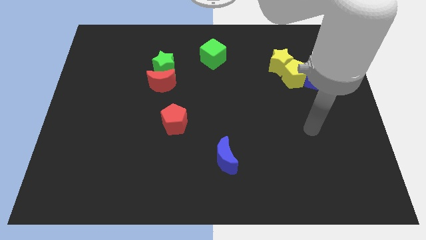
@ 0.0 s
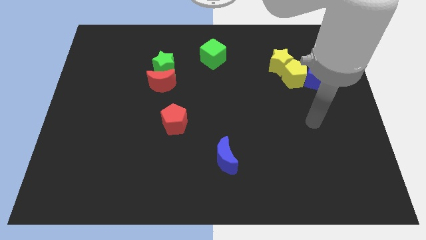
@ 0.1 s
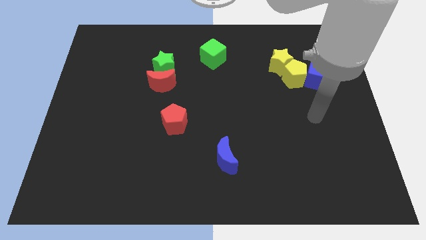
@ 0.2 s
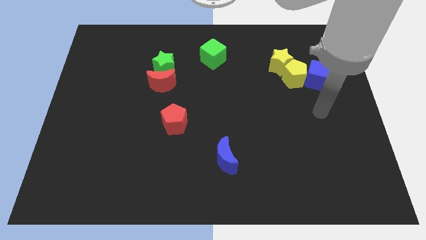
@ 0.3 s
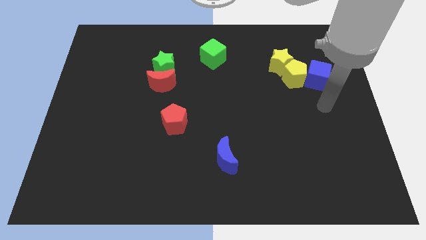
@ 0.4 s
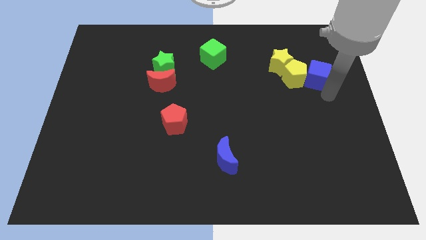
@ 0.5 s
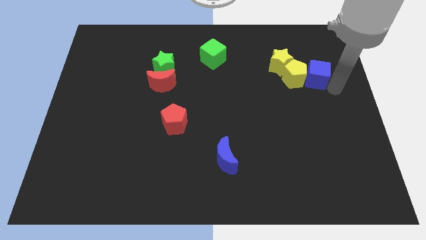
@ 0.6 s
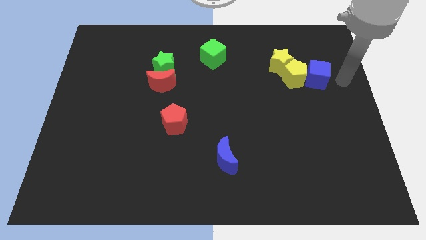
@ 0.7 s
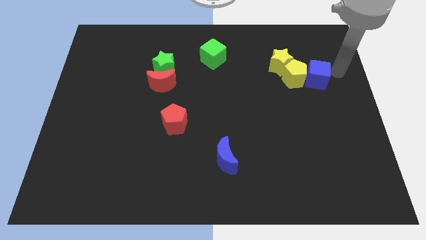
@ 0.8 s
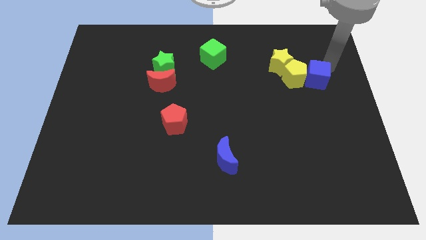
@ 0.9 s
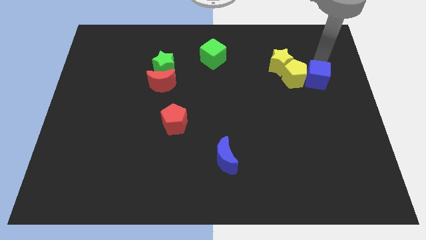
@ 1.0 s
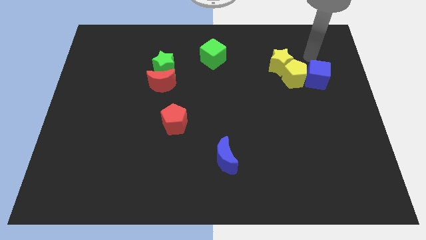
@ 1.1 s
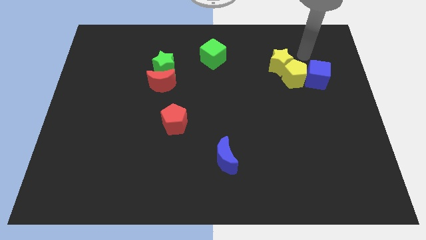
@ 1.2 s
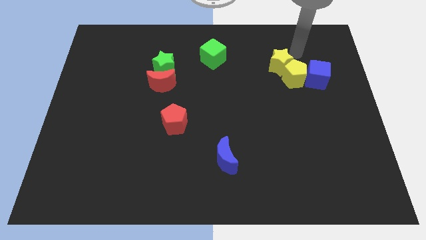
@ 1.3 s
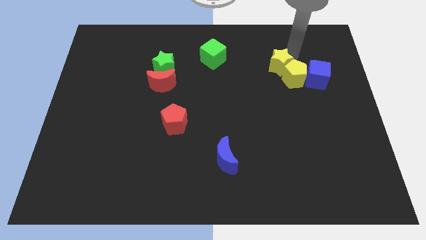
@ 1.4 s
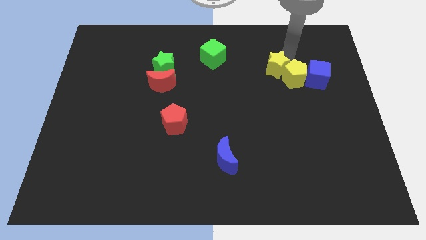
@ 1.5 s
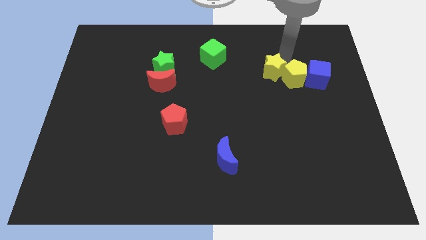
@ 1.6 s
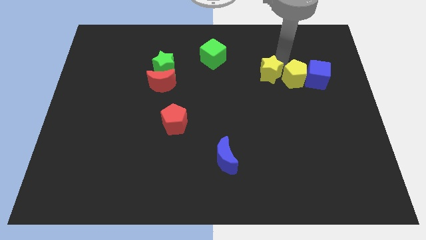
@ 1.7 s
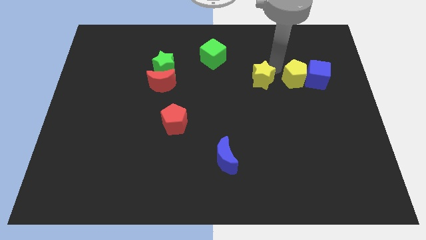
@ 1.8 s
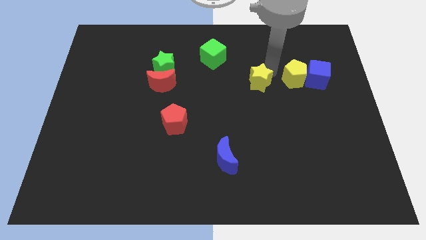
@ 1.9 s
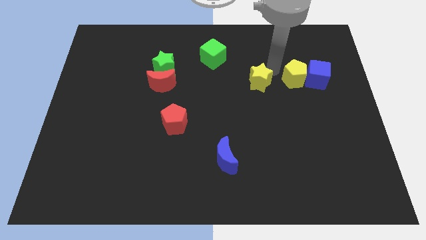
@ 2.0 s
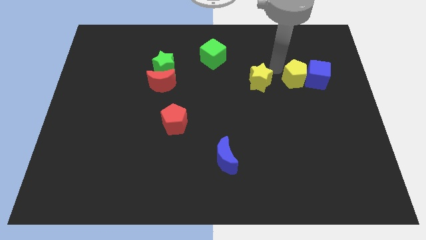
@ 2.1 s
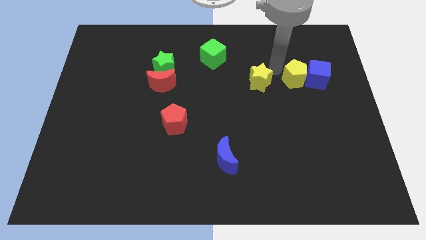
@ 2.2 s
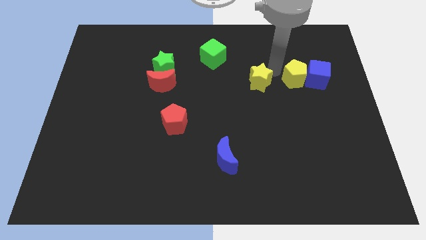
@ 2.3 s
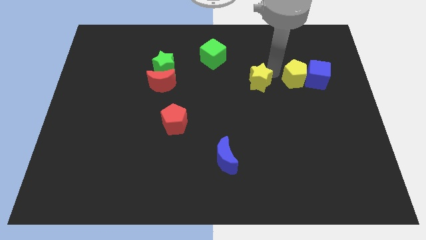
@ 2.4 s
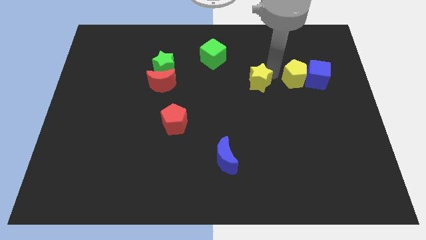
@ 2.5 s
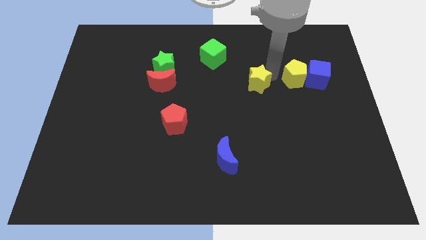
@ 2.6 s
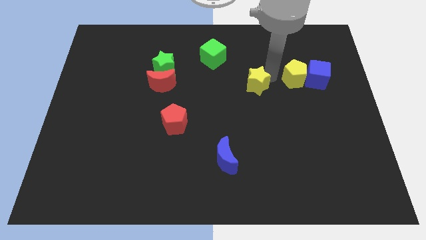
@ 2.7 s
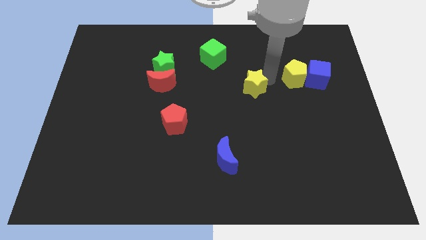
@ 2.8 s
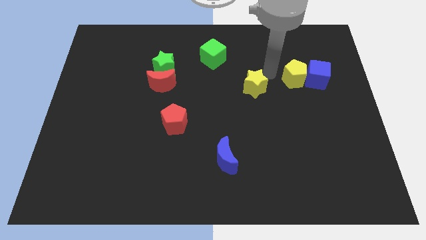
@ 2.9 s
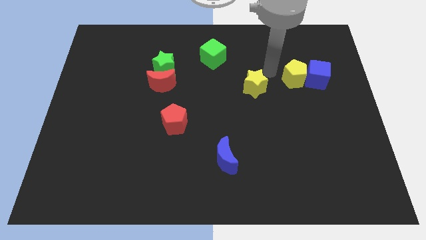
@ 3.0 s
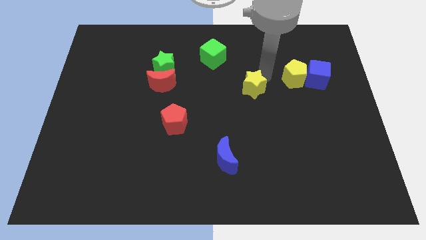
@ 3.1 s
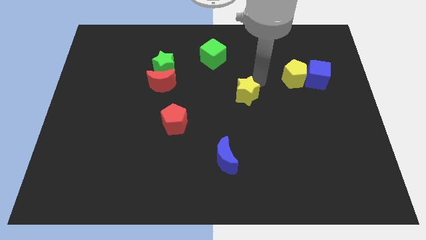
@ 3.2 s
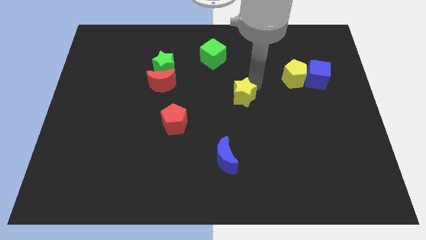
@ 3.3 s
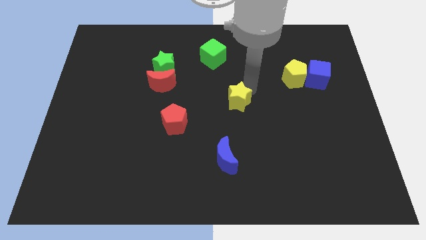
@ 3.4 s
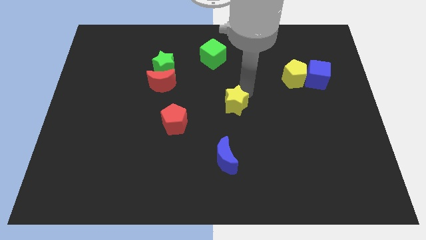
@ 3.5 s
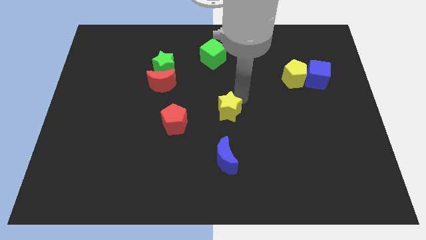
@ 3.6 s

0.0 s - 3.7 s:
move the yellow star downwards and left

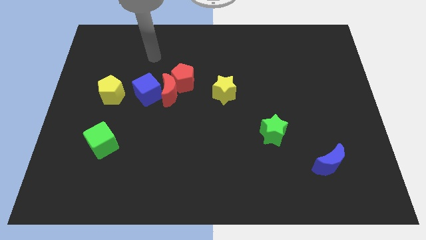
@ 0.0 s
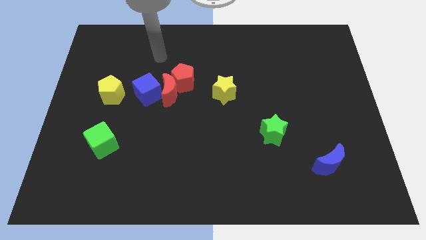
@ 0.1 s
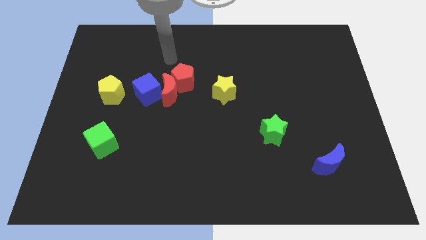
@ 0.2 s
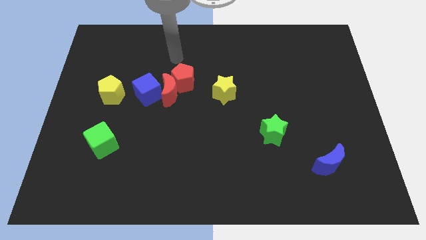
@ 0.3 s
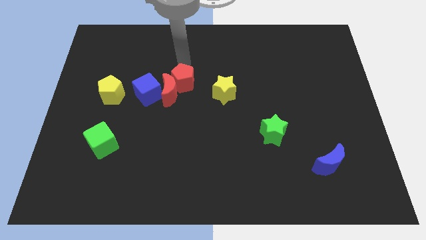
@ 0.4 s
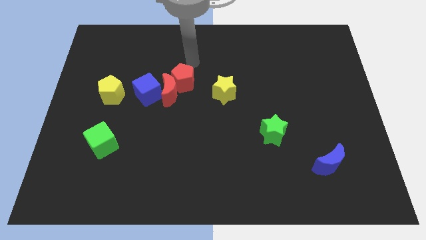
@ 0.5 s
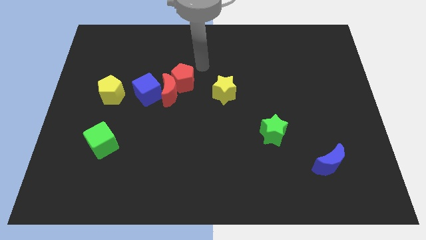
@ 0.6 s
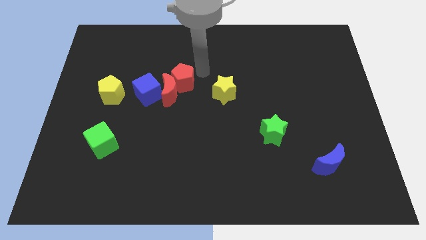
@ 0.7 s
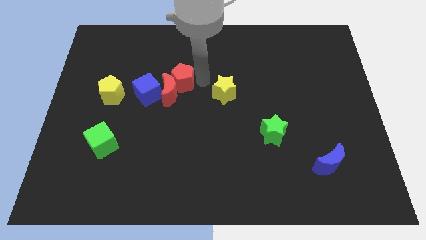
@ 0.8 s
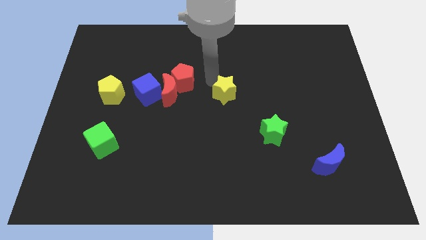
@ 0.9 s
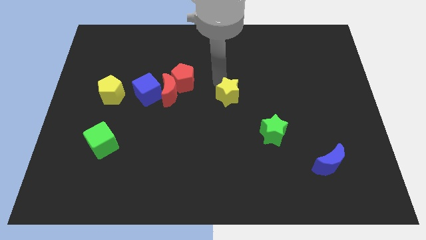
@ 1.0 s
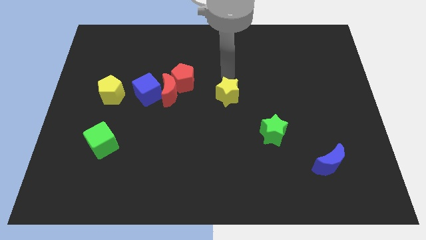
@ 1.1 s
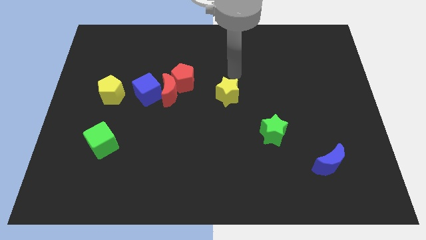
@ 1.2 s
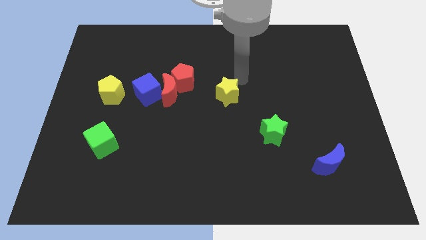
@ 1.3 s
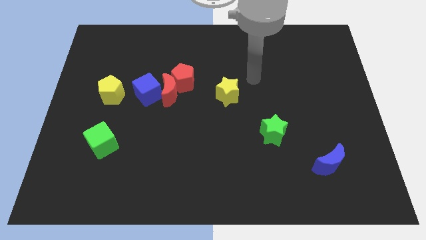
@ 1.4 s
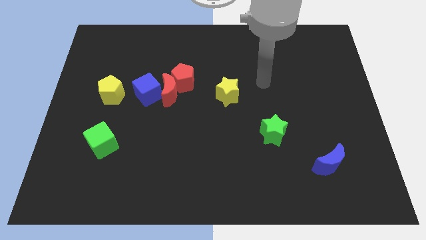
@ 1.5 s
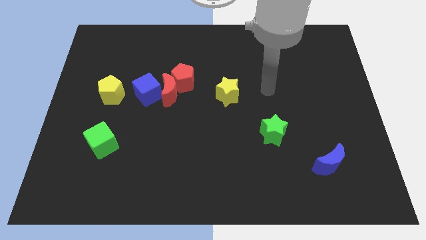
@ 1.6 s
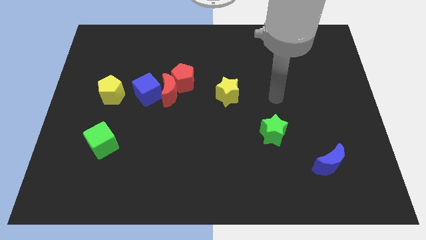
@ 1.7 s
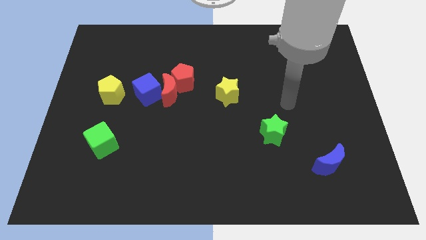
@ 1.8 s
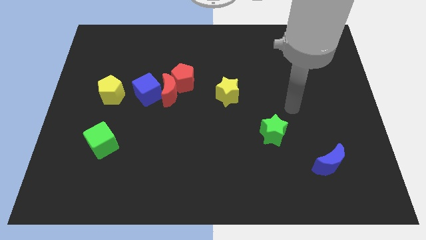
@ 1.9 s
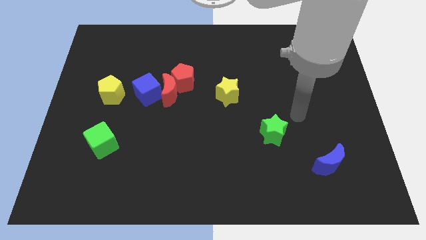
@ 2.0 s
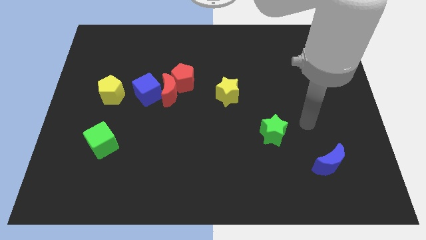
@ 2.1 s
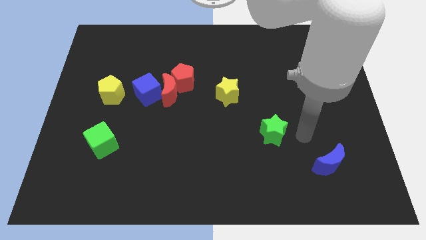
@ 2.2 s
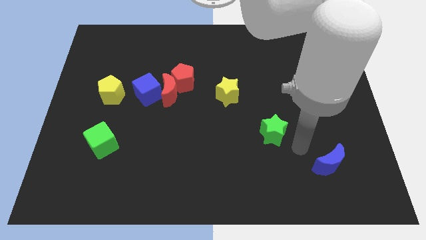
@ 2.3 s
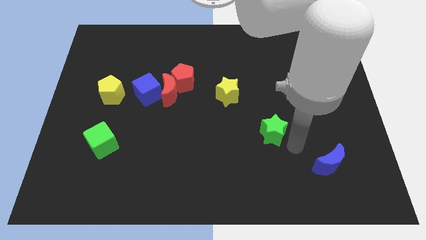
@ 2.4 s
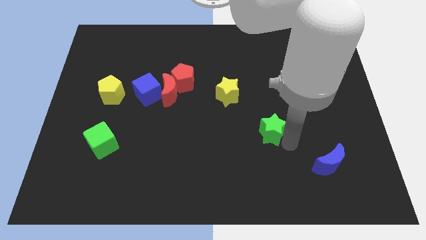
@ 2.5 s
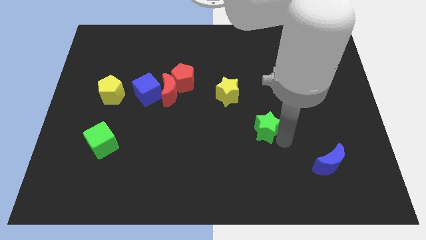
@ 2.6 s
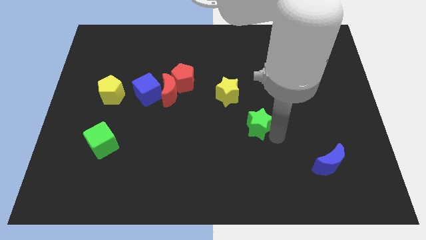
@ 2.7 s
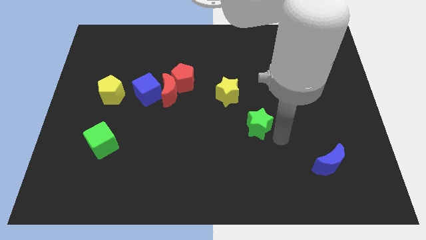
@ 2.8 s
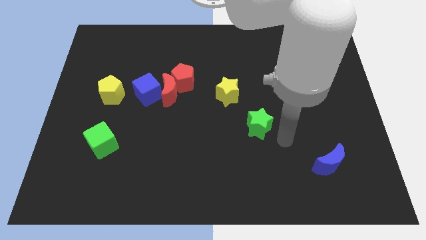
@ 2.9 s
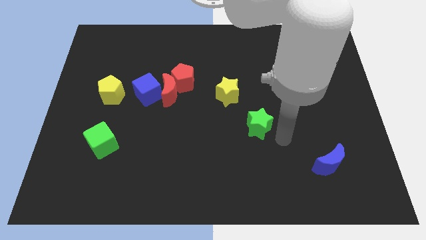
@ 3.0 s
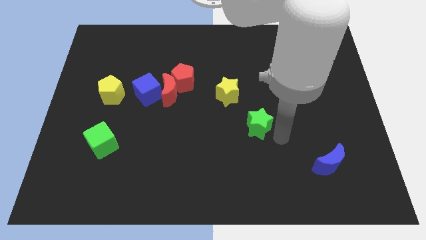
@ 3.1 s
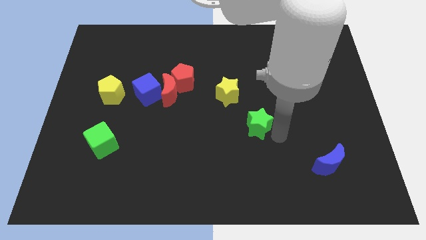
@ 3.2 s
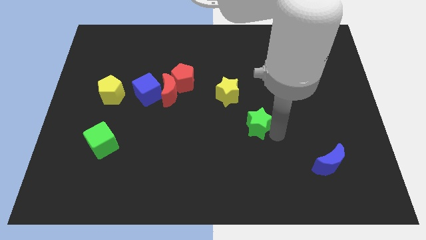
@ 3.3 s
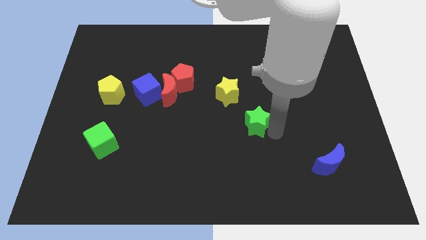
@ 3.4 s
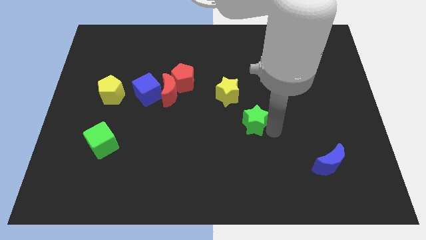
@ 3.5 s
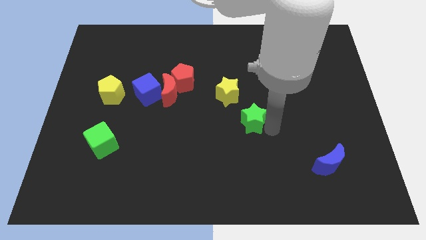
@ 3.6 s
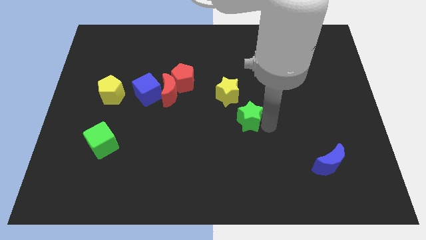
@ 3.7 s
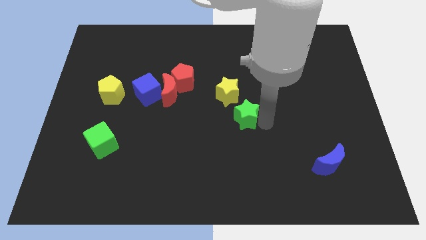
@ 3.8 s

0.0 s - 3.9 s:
slide the green star somewhat diagonally up and to the left

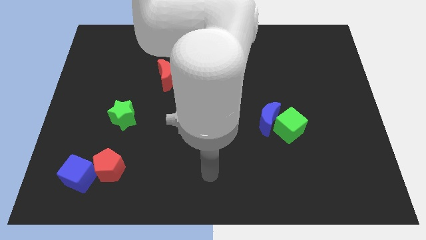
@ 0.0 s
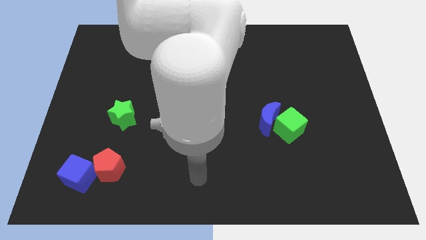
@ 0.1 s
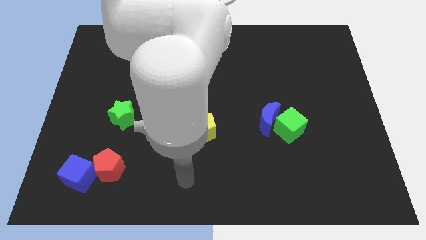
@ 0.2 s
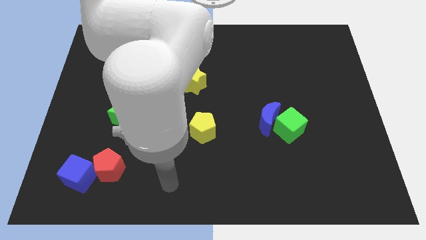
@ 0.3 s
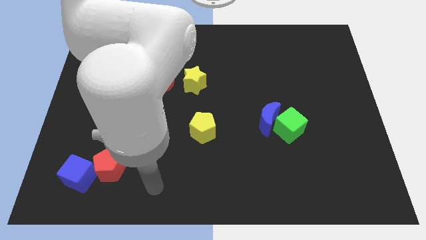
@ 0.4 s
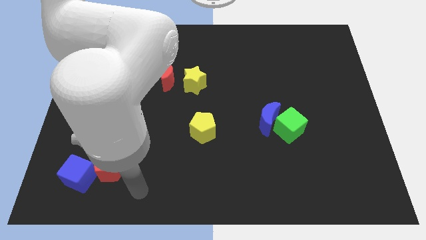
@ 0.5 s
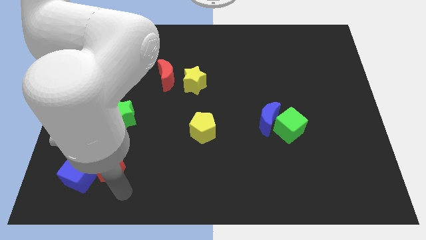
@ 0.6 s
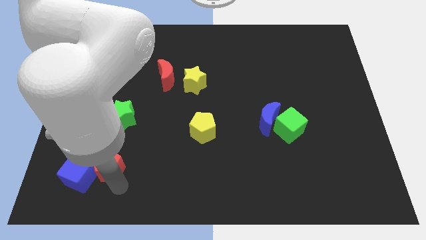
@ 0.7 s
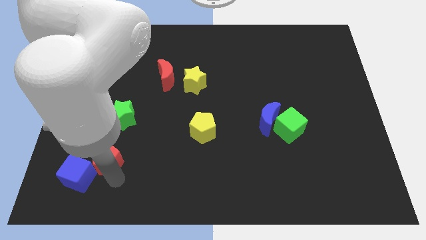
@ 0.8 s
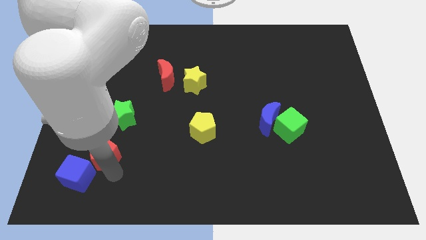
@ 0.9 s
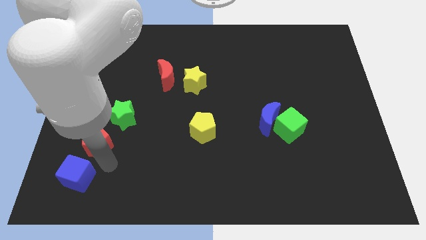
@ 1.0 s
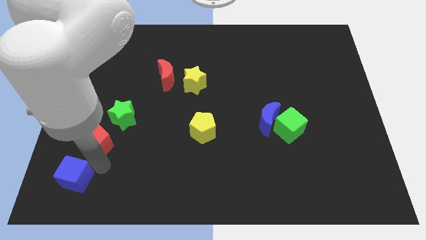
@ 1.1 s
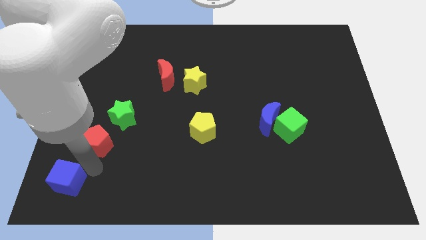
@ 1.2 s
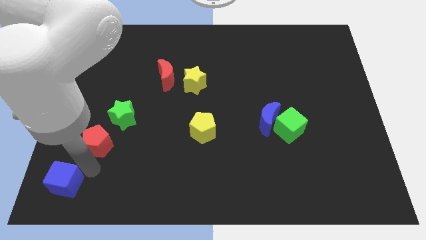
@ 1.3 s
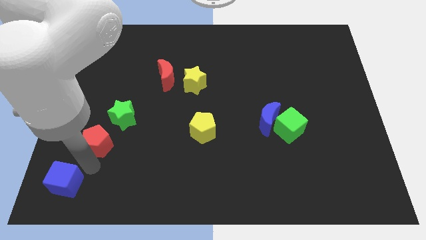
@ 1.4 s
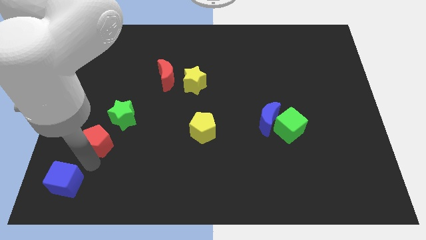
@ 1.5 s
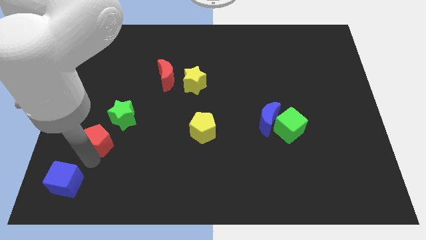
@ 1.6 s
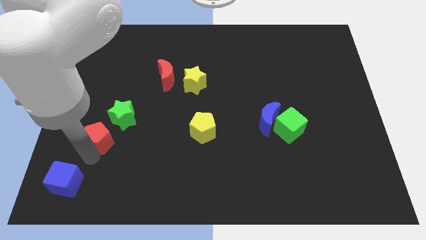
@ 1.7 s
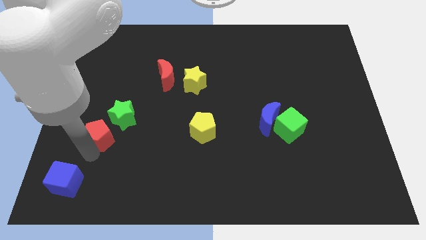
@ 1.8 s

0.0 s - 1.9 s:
slightly move the red pentagon upwards
